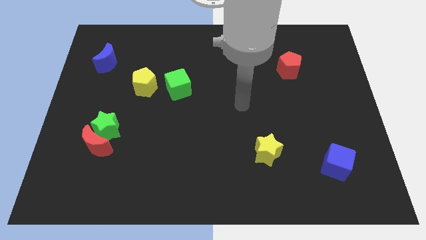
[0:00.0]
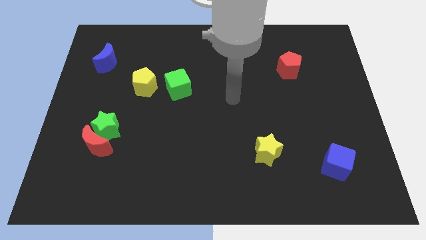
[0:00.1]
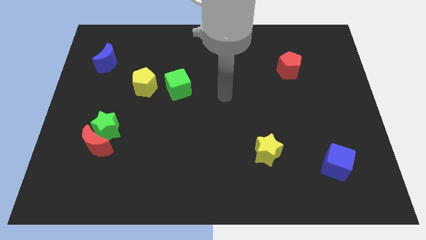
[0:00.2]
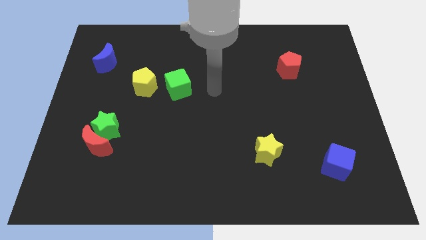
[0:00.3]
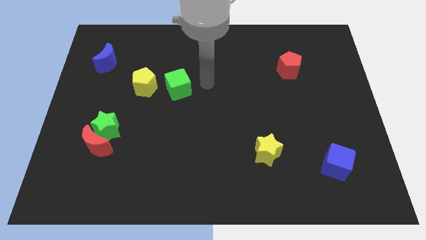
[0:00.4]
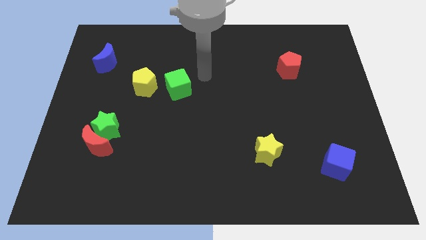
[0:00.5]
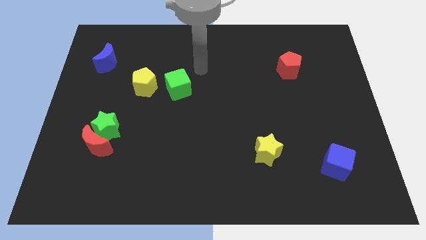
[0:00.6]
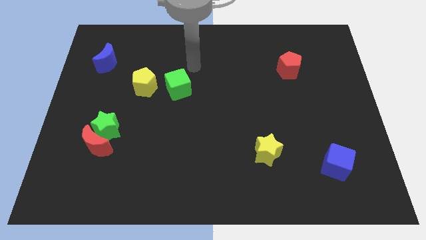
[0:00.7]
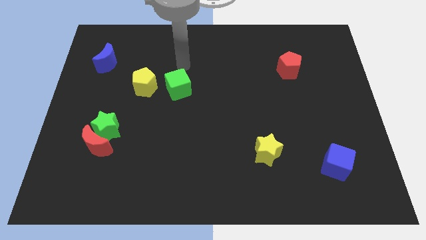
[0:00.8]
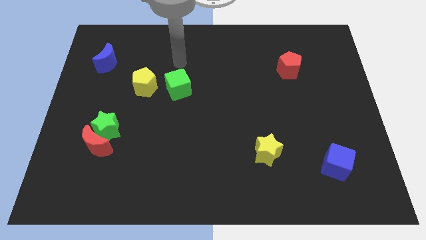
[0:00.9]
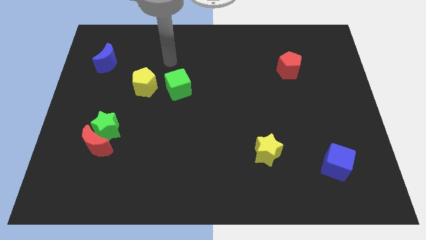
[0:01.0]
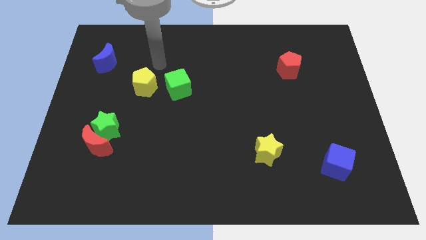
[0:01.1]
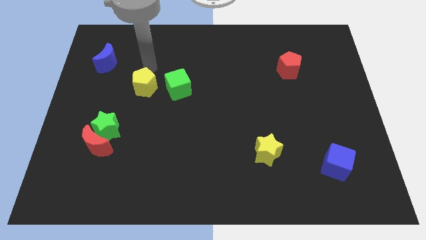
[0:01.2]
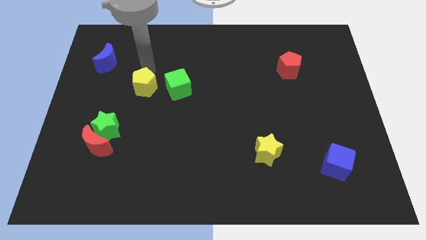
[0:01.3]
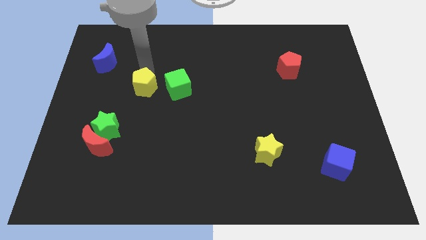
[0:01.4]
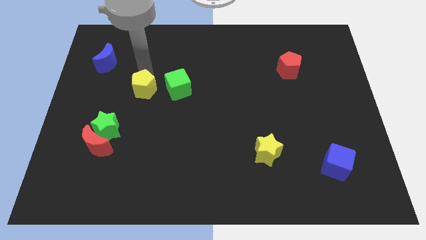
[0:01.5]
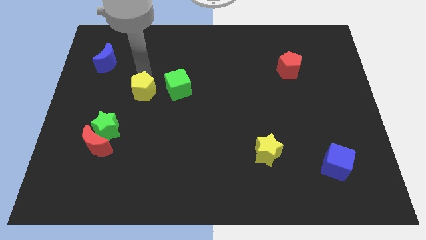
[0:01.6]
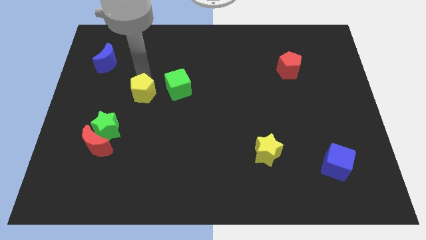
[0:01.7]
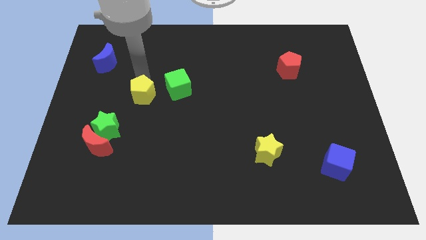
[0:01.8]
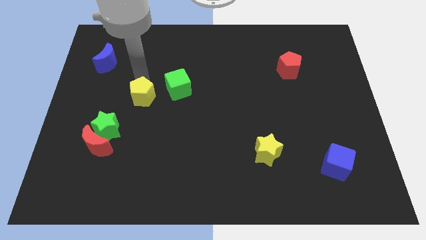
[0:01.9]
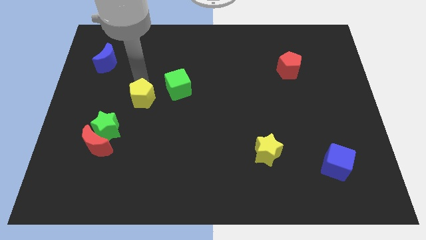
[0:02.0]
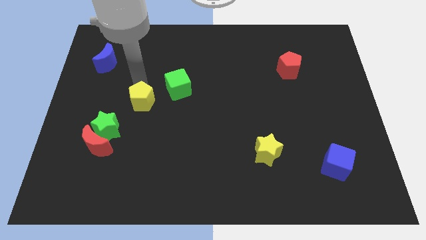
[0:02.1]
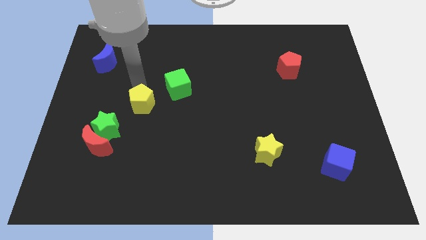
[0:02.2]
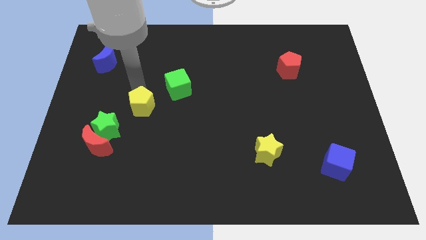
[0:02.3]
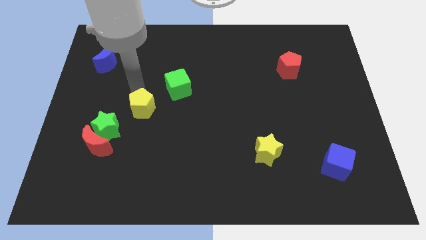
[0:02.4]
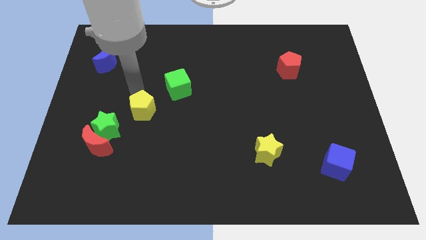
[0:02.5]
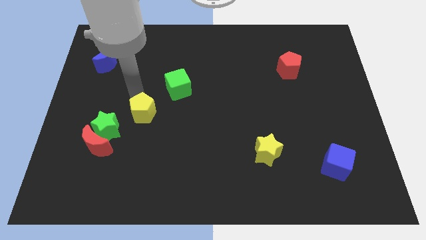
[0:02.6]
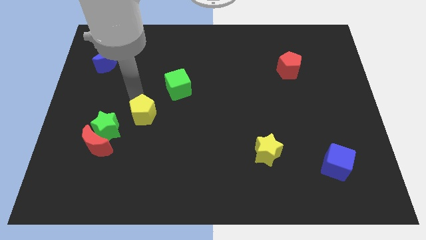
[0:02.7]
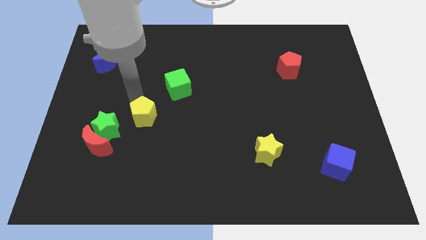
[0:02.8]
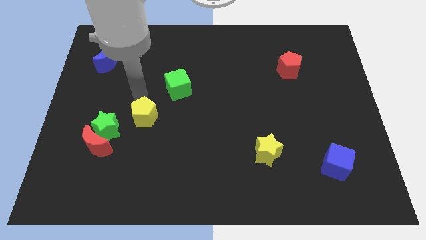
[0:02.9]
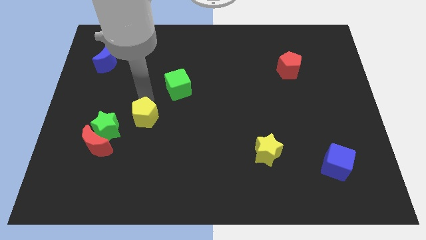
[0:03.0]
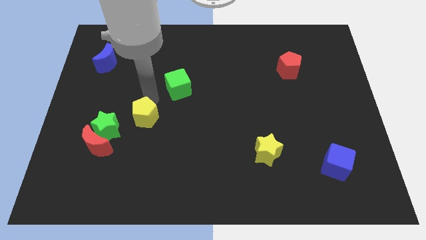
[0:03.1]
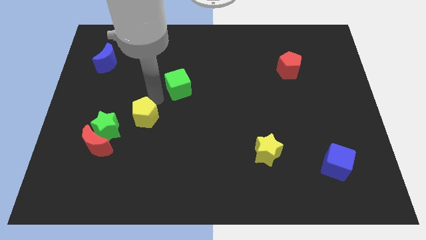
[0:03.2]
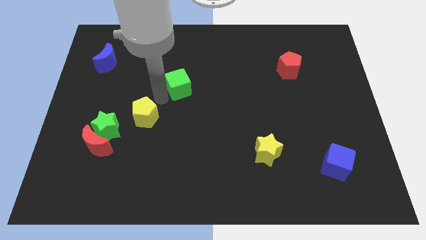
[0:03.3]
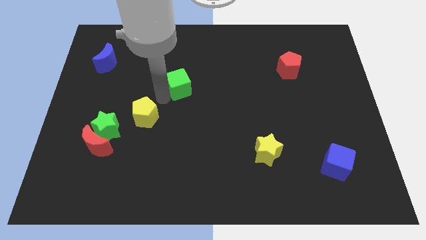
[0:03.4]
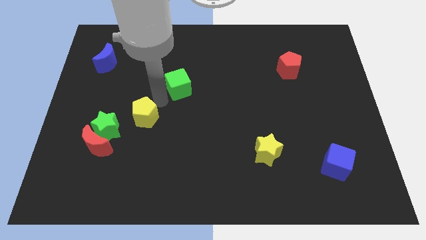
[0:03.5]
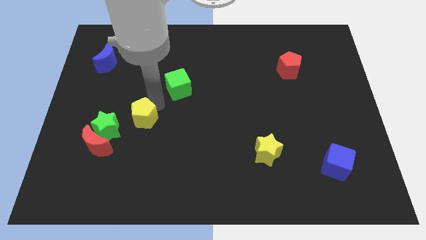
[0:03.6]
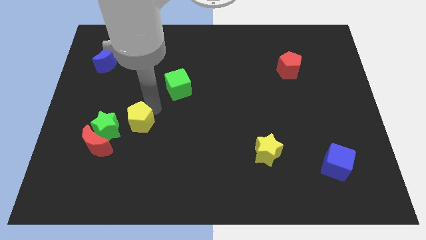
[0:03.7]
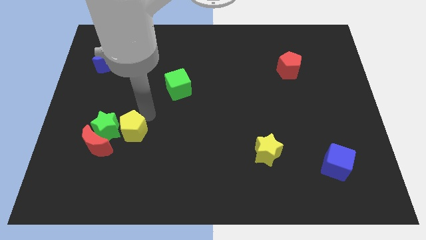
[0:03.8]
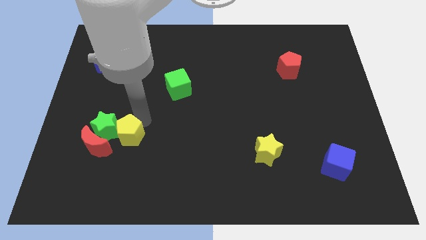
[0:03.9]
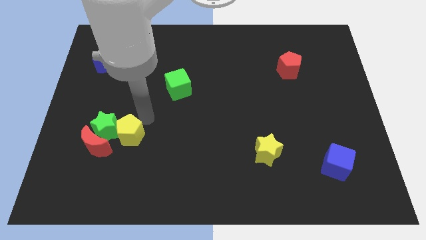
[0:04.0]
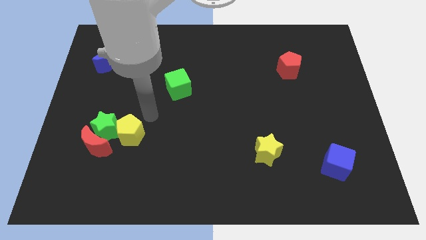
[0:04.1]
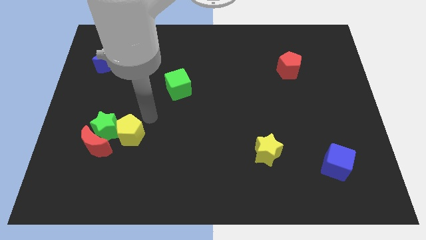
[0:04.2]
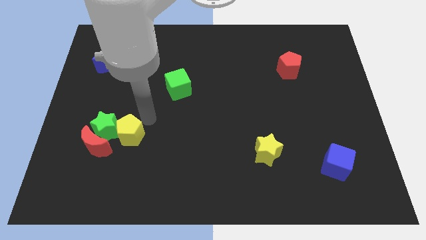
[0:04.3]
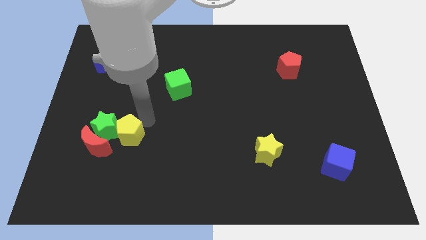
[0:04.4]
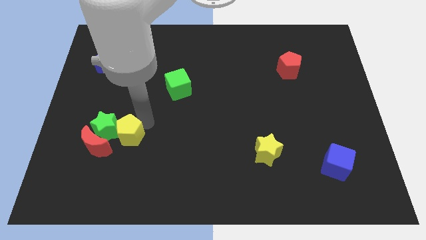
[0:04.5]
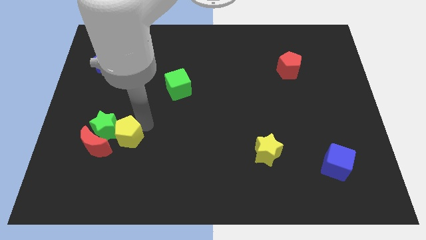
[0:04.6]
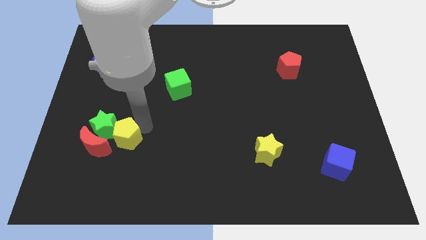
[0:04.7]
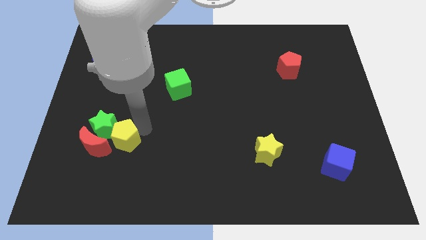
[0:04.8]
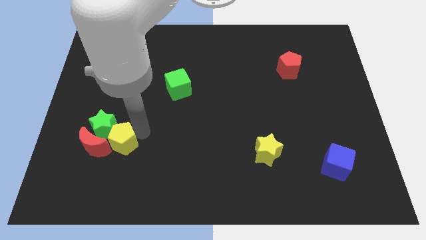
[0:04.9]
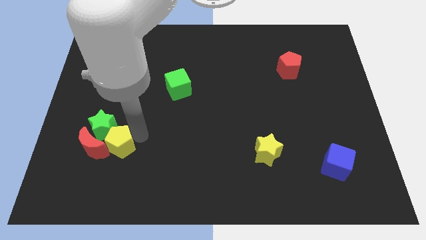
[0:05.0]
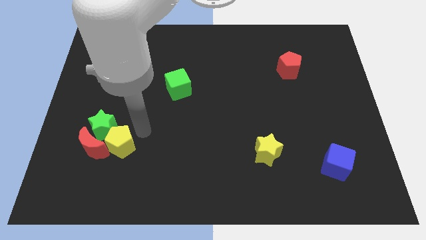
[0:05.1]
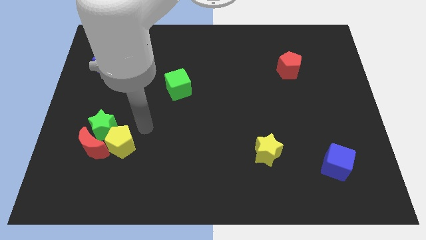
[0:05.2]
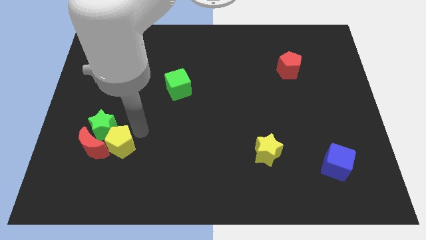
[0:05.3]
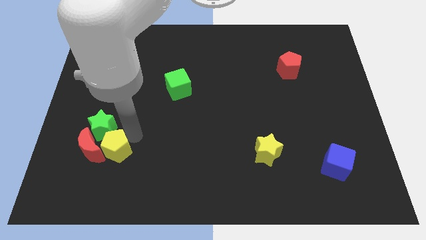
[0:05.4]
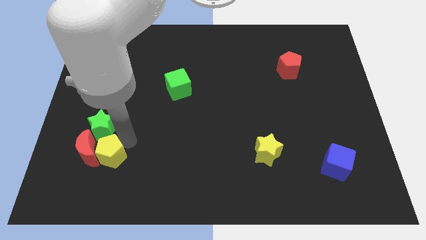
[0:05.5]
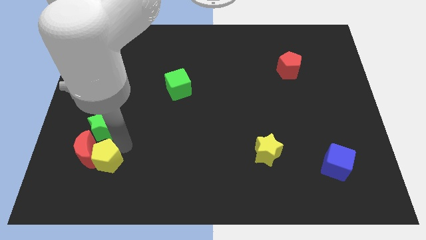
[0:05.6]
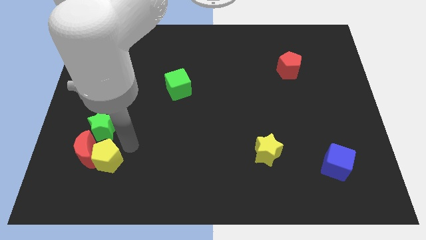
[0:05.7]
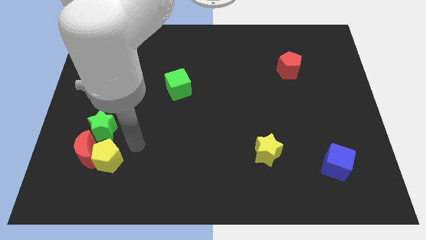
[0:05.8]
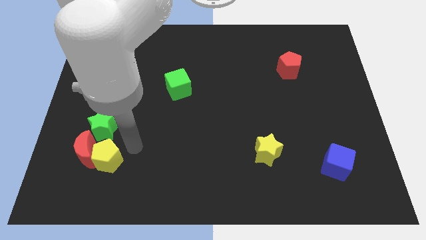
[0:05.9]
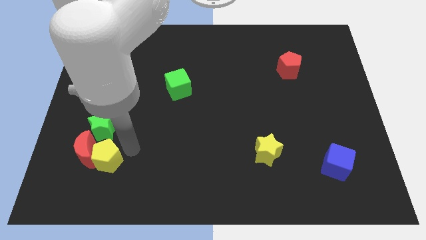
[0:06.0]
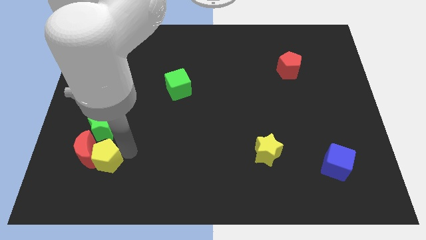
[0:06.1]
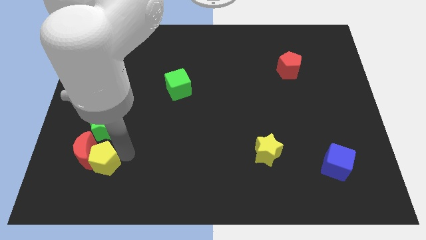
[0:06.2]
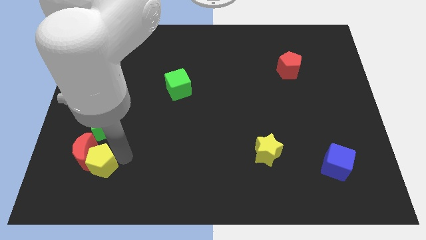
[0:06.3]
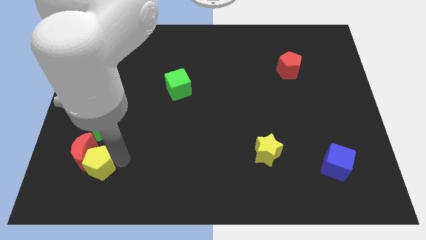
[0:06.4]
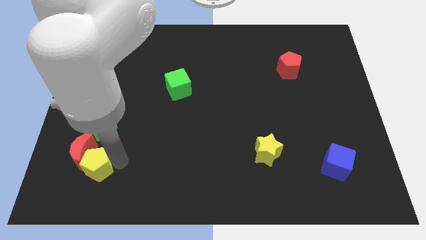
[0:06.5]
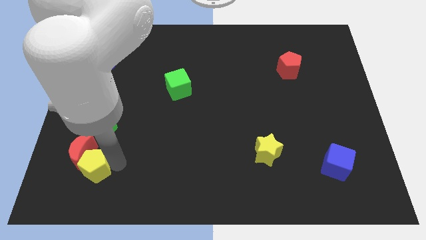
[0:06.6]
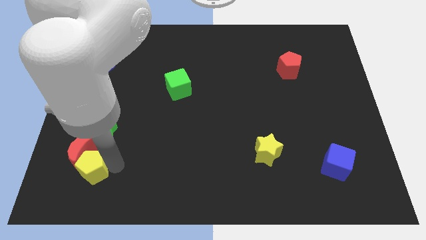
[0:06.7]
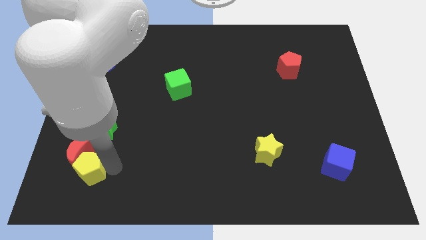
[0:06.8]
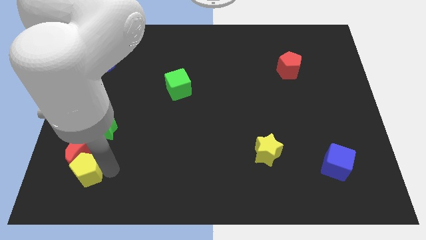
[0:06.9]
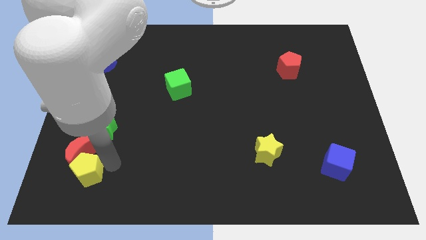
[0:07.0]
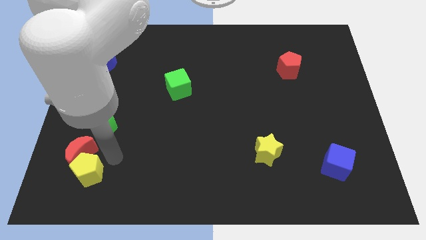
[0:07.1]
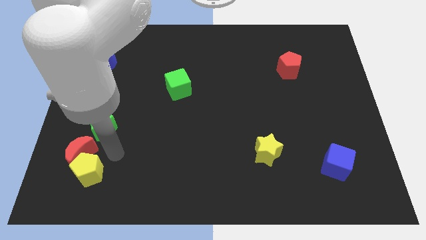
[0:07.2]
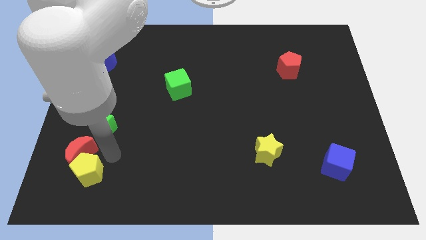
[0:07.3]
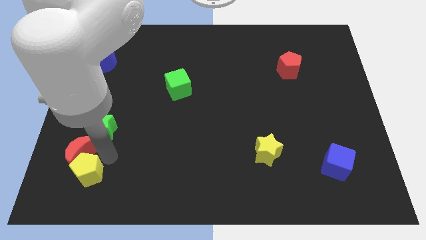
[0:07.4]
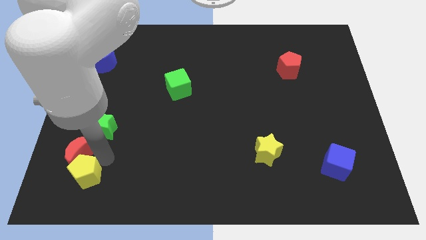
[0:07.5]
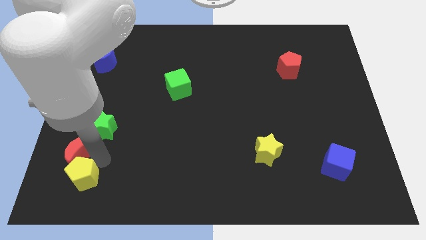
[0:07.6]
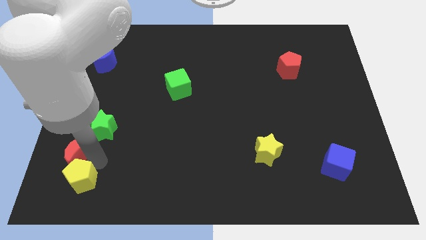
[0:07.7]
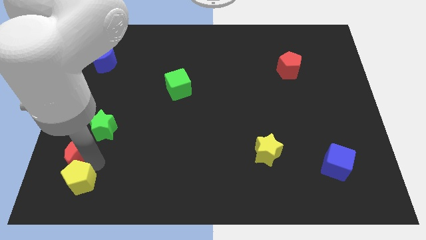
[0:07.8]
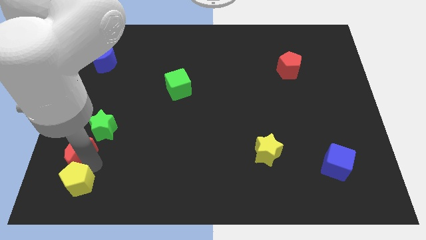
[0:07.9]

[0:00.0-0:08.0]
slide the yellow pentagon to the bottom left of the board
